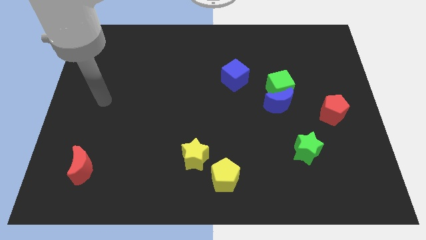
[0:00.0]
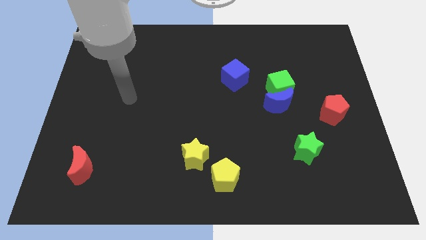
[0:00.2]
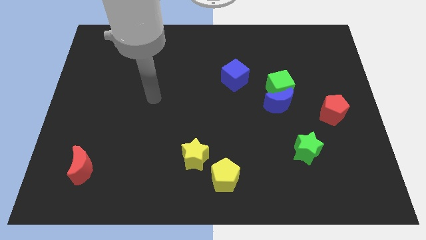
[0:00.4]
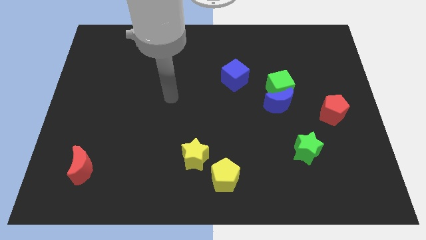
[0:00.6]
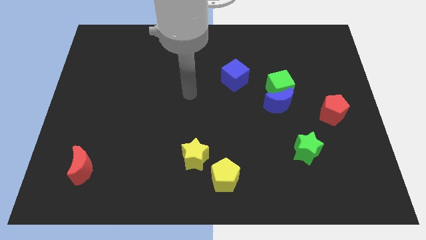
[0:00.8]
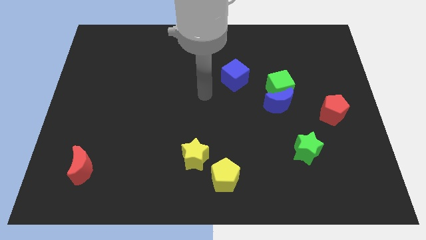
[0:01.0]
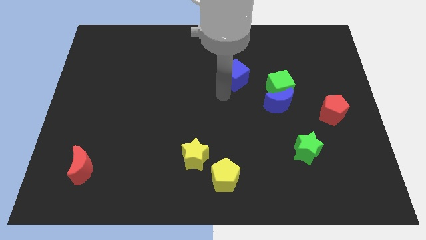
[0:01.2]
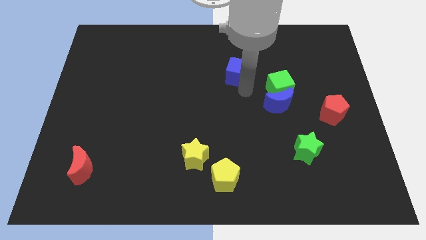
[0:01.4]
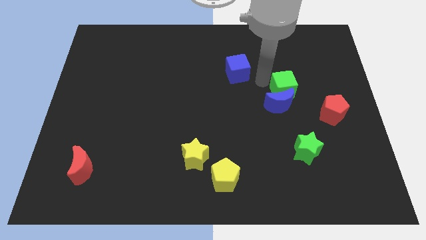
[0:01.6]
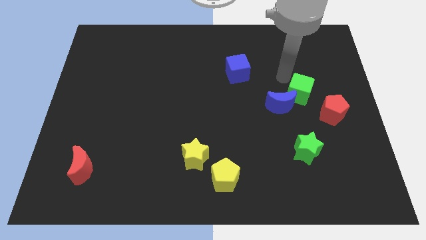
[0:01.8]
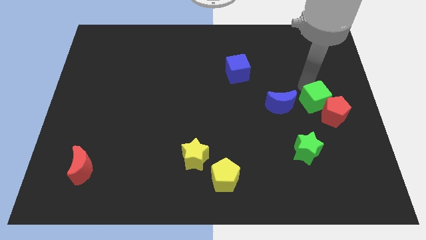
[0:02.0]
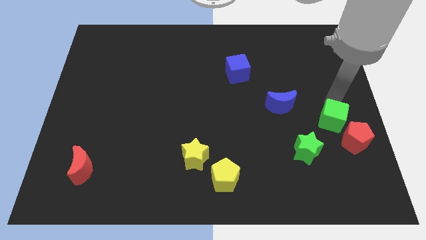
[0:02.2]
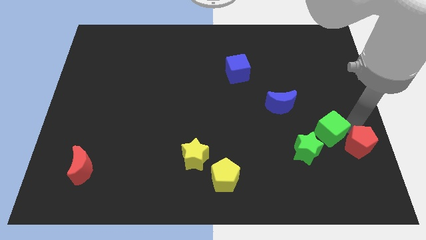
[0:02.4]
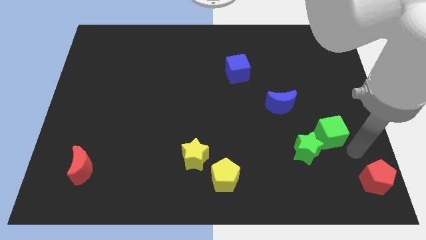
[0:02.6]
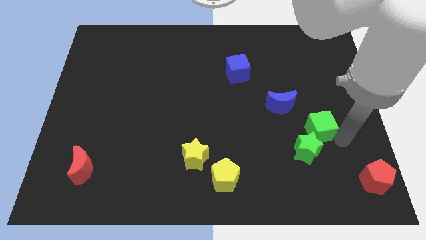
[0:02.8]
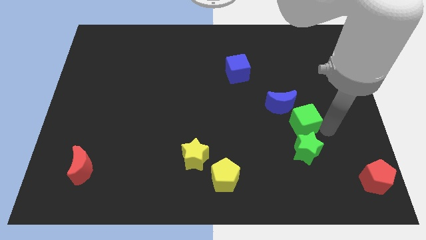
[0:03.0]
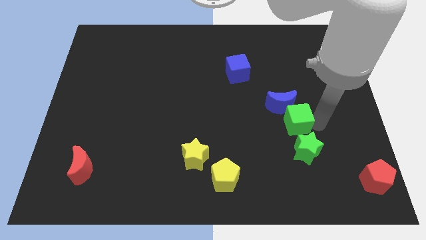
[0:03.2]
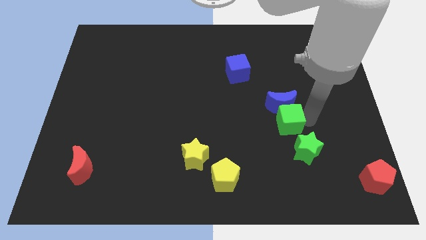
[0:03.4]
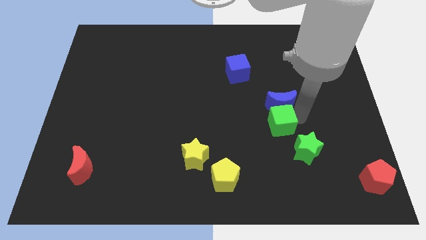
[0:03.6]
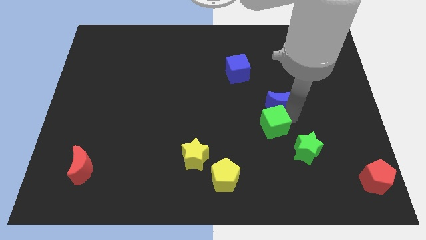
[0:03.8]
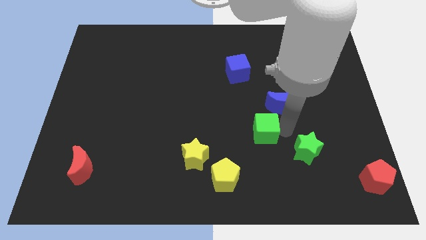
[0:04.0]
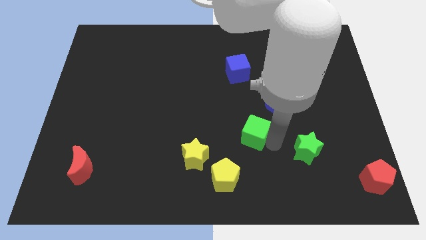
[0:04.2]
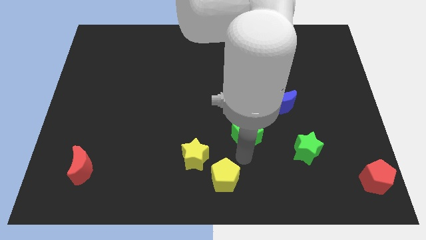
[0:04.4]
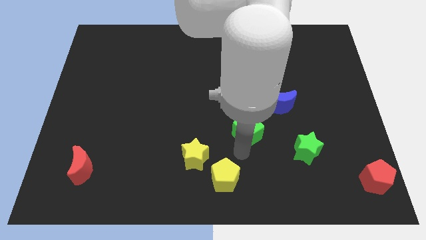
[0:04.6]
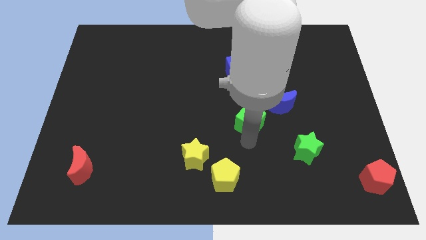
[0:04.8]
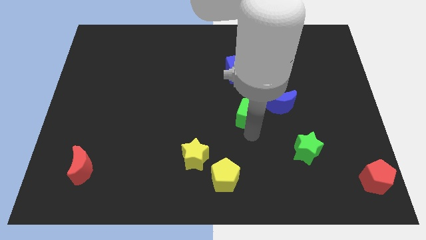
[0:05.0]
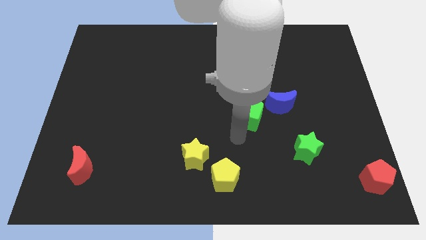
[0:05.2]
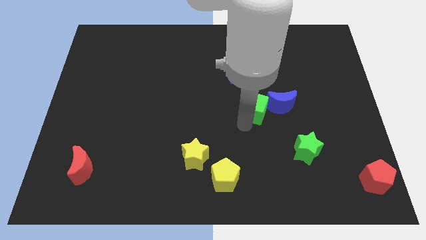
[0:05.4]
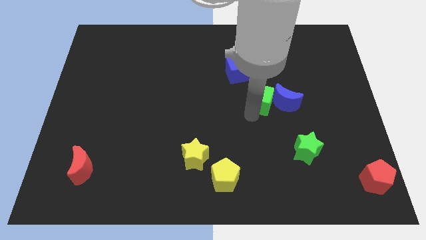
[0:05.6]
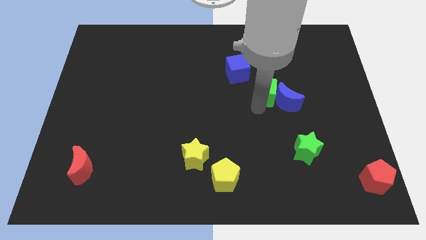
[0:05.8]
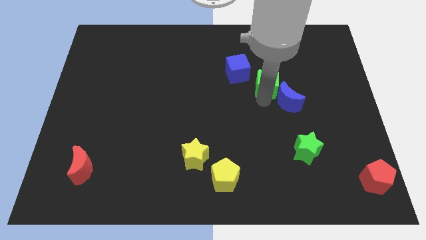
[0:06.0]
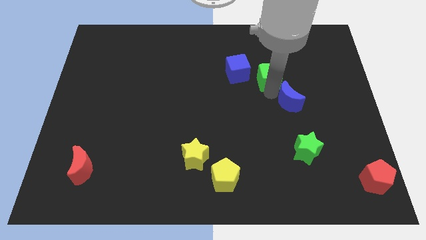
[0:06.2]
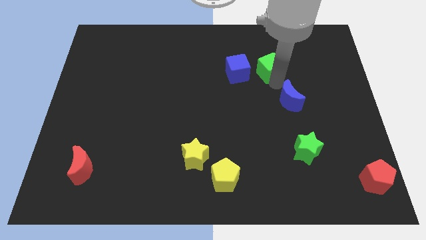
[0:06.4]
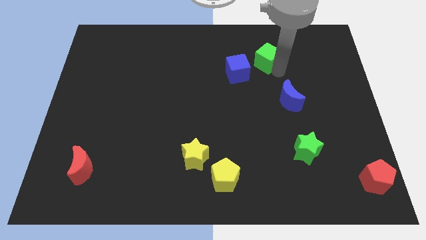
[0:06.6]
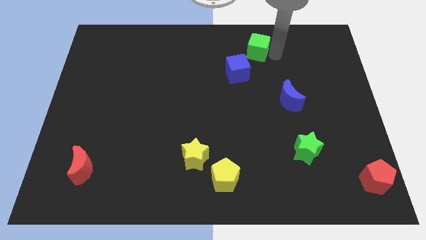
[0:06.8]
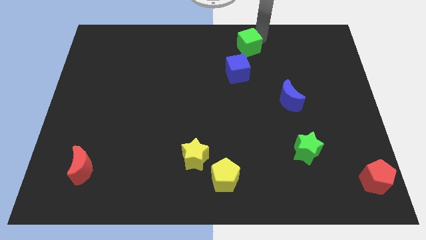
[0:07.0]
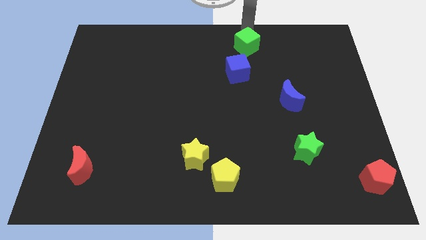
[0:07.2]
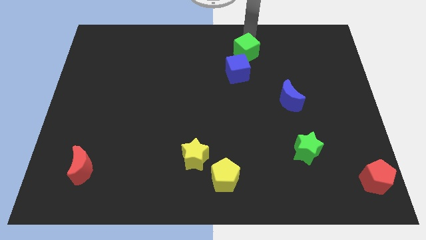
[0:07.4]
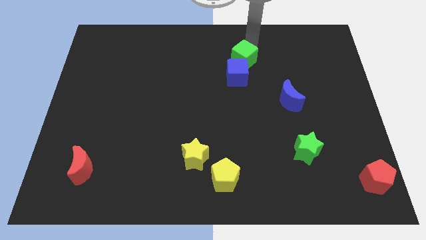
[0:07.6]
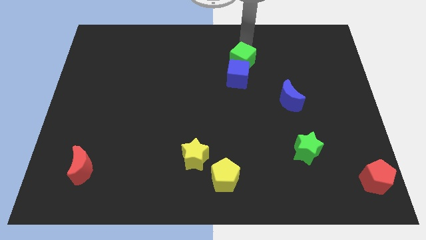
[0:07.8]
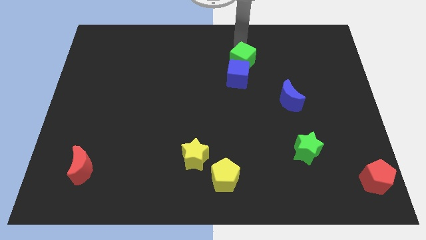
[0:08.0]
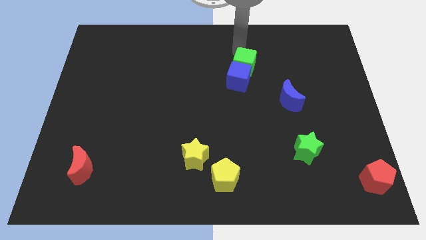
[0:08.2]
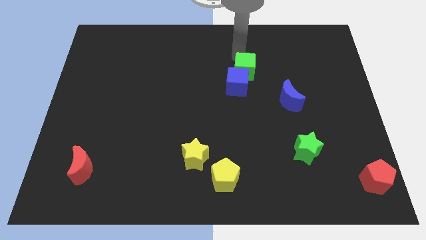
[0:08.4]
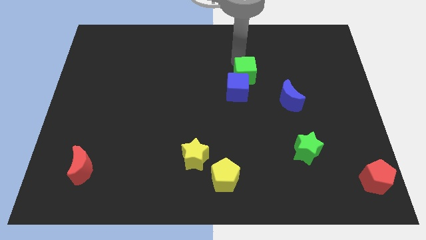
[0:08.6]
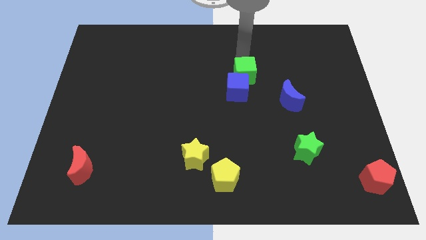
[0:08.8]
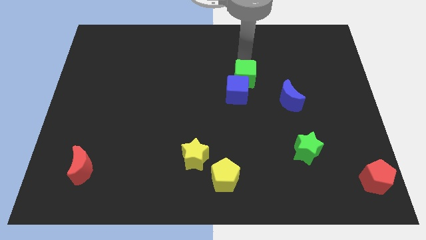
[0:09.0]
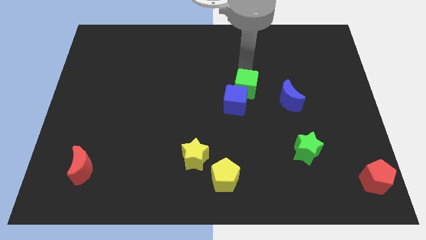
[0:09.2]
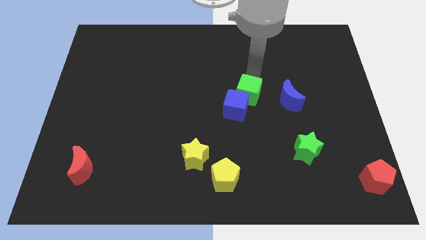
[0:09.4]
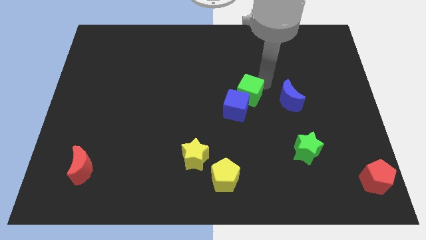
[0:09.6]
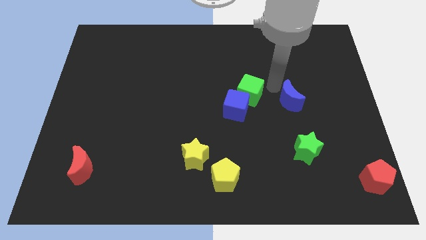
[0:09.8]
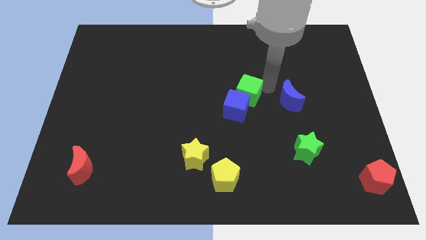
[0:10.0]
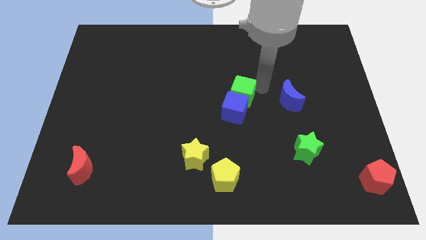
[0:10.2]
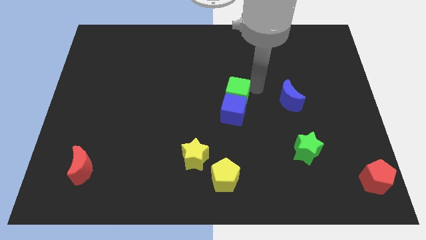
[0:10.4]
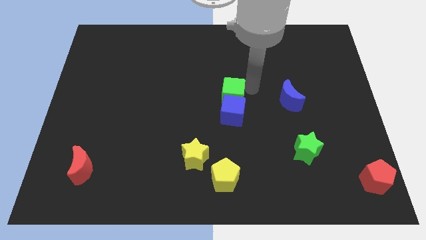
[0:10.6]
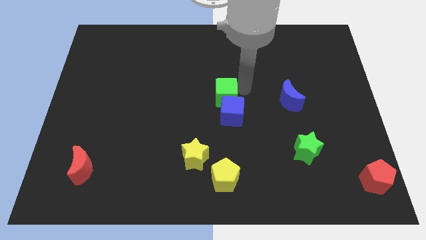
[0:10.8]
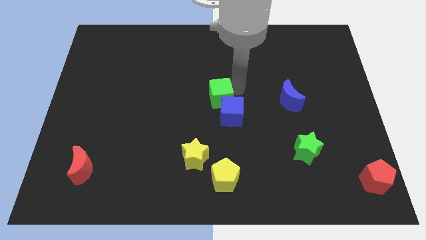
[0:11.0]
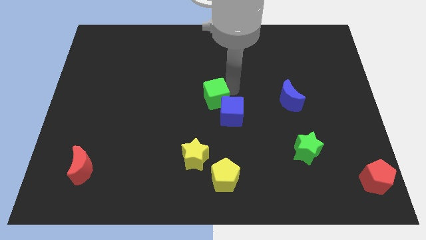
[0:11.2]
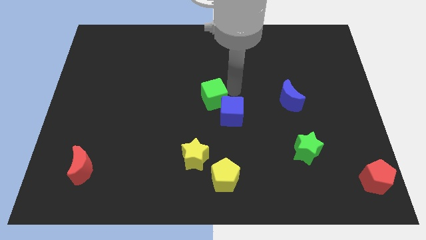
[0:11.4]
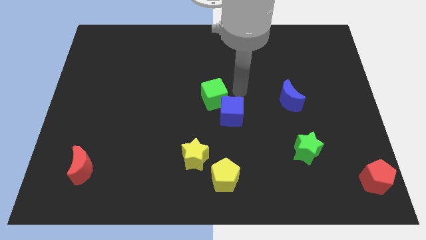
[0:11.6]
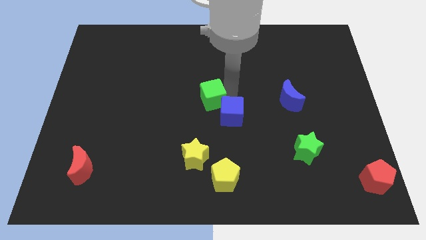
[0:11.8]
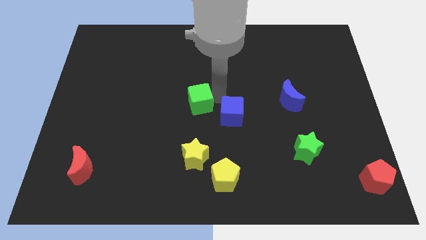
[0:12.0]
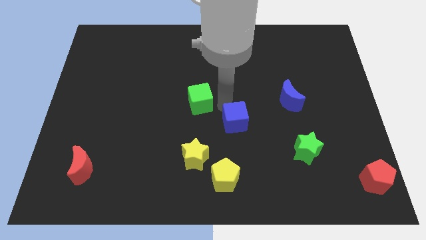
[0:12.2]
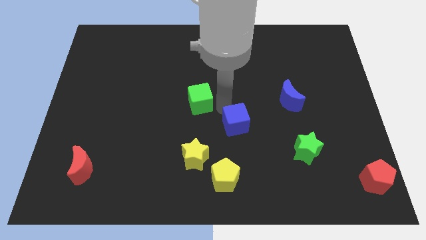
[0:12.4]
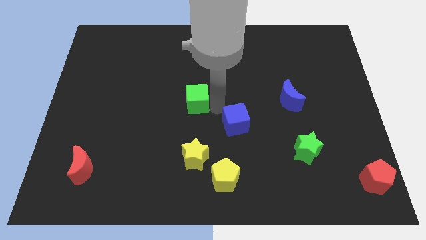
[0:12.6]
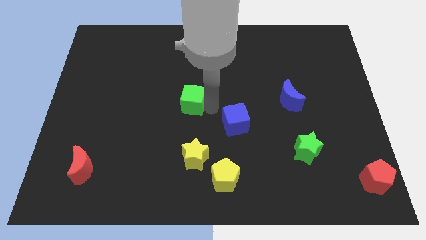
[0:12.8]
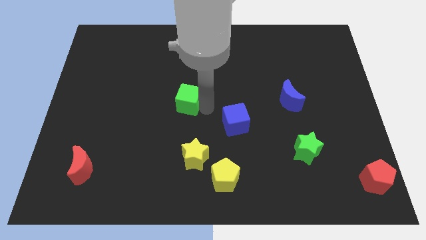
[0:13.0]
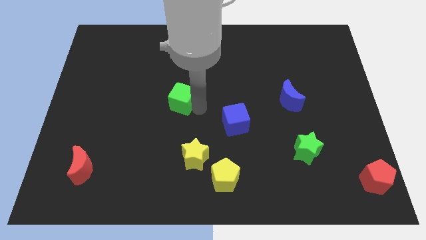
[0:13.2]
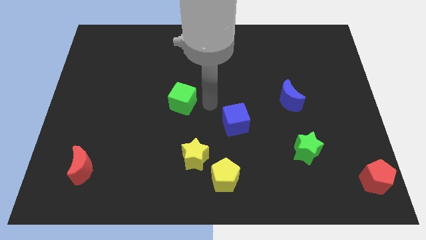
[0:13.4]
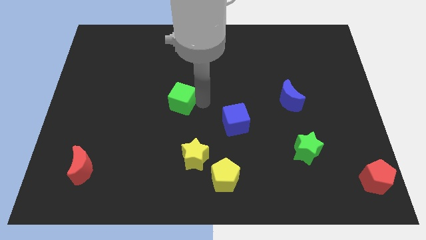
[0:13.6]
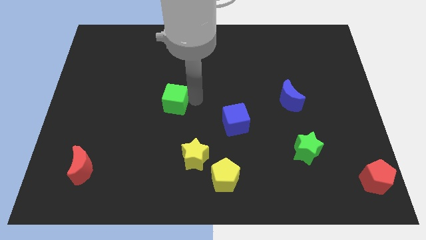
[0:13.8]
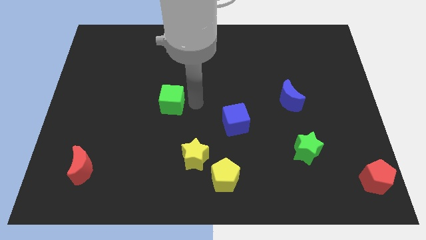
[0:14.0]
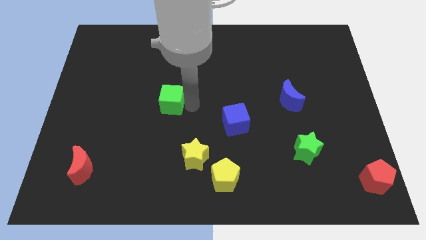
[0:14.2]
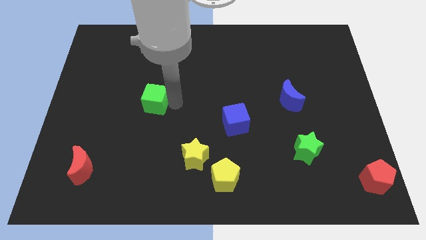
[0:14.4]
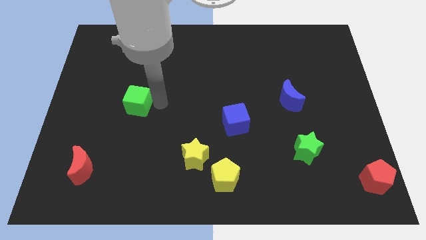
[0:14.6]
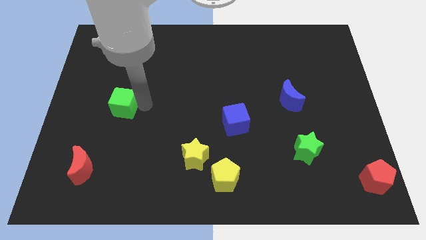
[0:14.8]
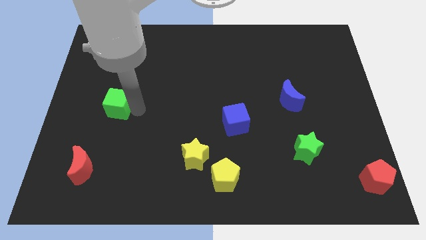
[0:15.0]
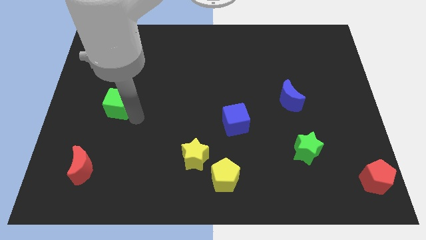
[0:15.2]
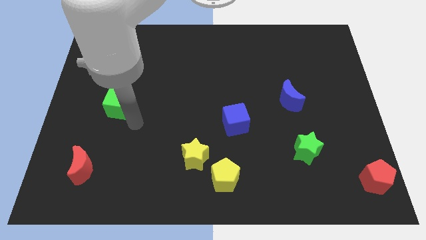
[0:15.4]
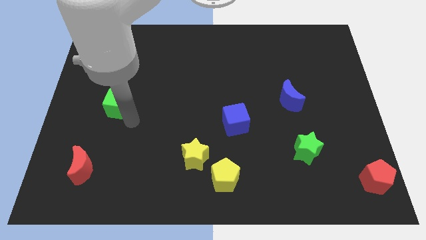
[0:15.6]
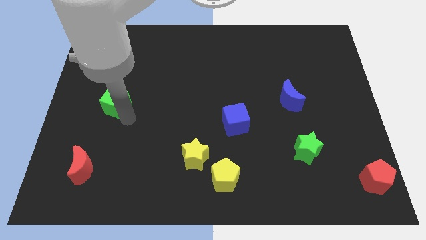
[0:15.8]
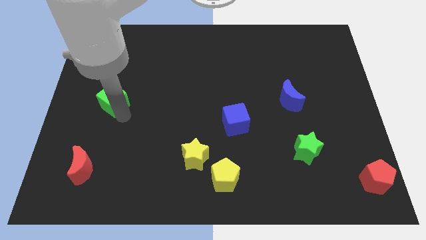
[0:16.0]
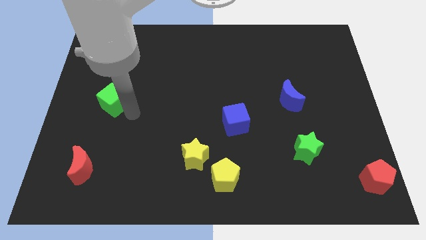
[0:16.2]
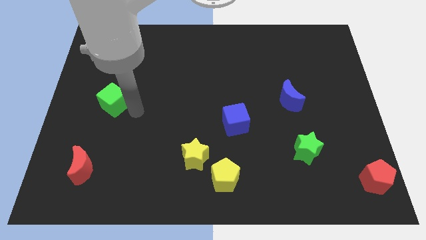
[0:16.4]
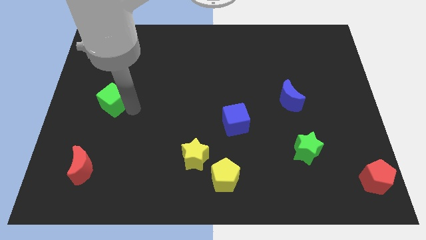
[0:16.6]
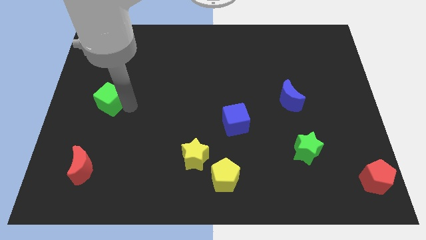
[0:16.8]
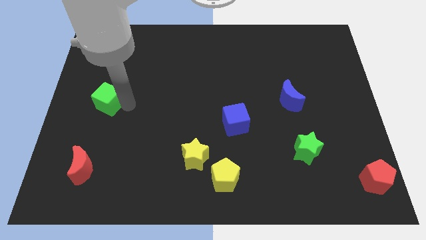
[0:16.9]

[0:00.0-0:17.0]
slide the green cube to the center left
